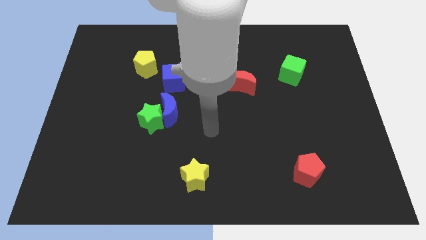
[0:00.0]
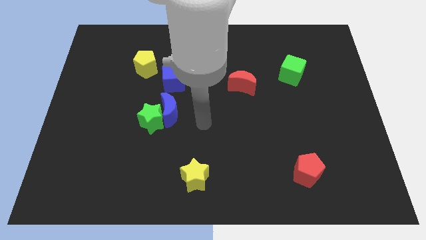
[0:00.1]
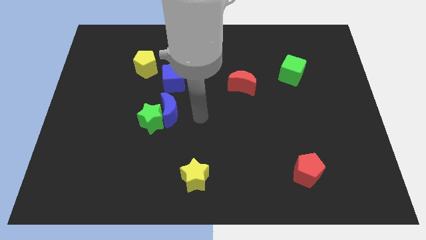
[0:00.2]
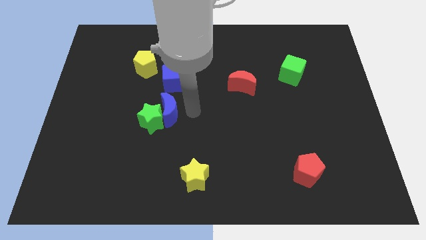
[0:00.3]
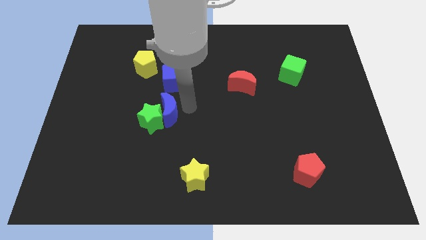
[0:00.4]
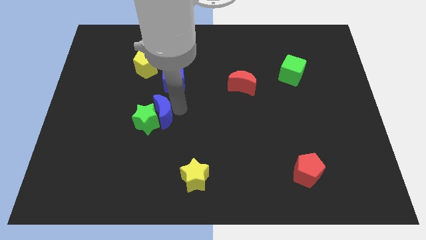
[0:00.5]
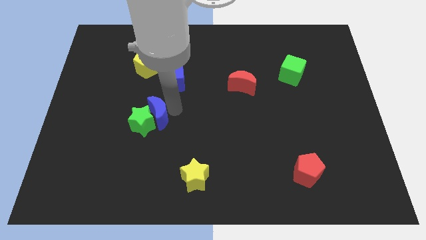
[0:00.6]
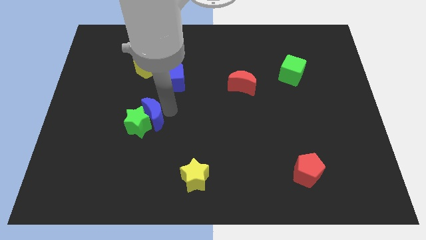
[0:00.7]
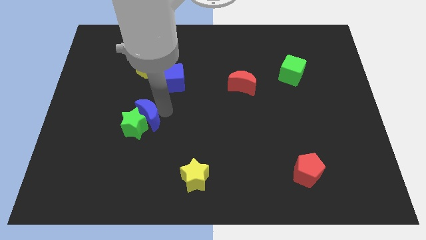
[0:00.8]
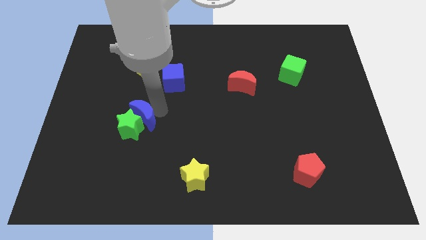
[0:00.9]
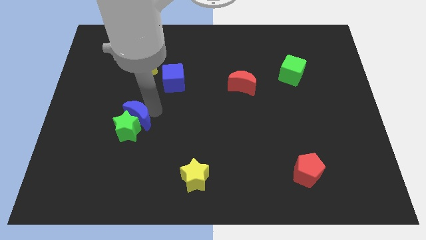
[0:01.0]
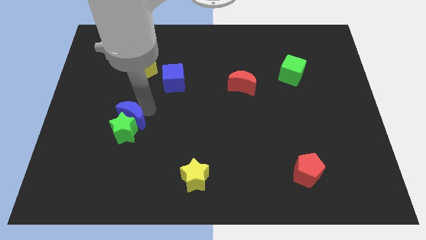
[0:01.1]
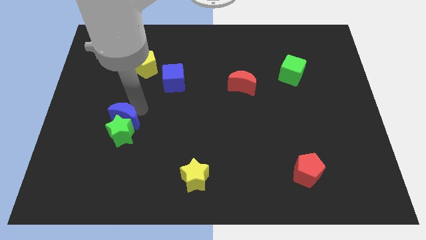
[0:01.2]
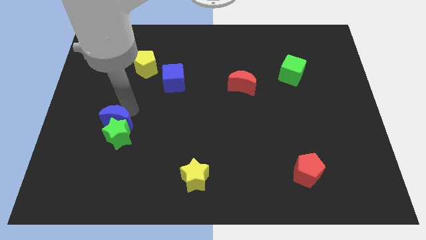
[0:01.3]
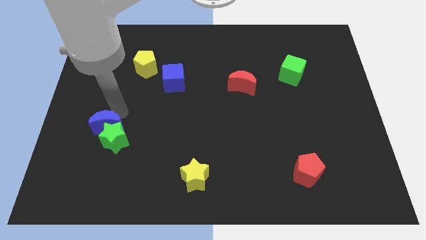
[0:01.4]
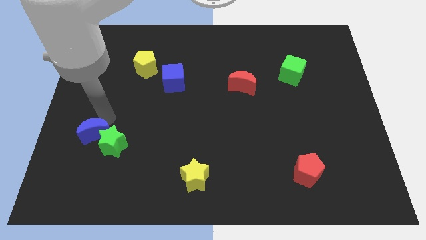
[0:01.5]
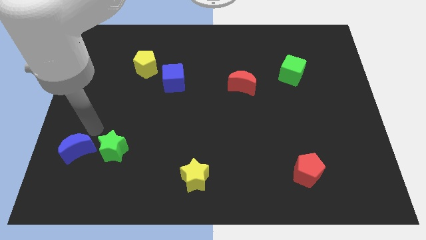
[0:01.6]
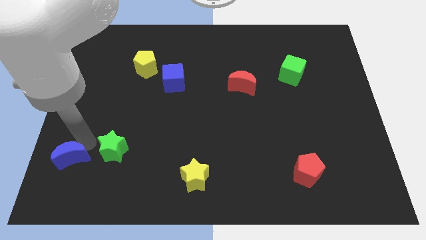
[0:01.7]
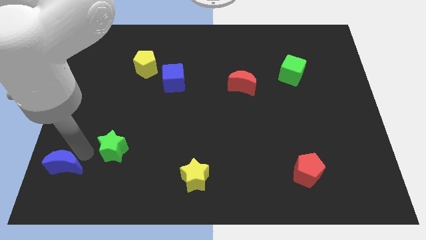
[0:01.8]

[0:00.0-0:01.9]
separate the green star from the blue moon

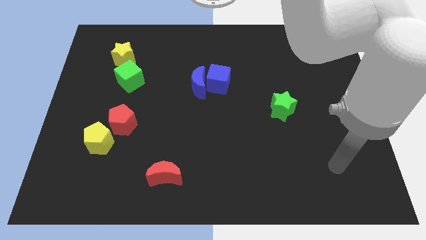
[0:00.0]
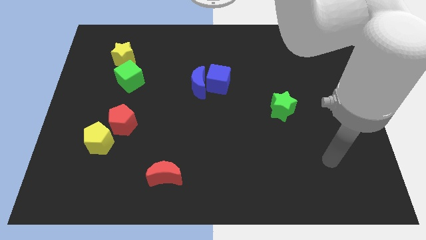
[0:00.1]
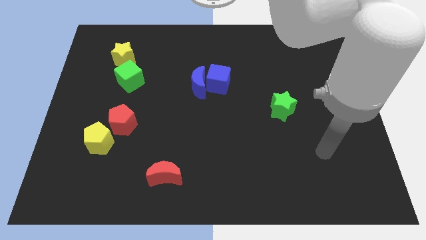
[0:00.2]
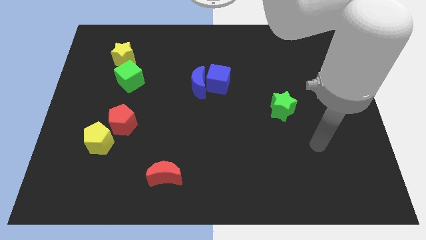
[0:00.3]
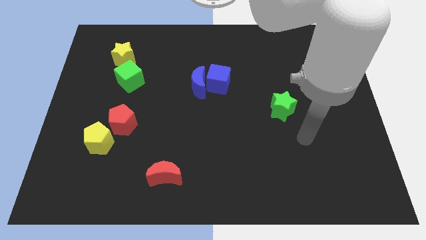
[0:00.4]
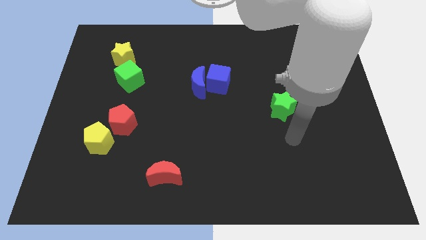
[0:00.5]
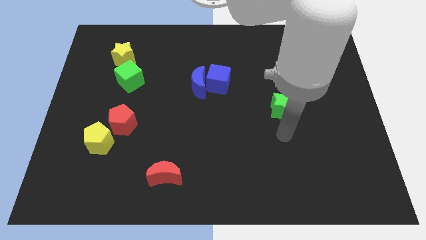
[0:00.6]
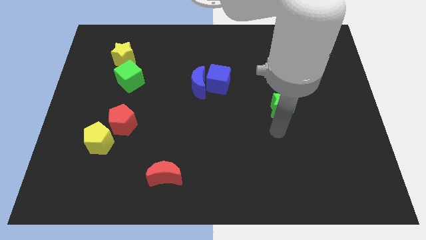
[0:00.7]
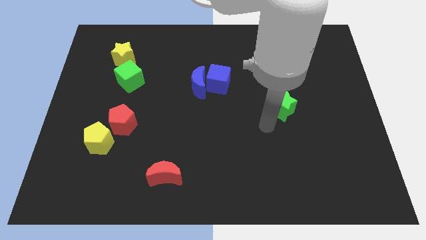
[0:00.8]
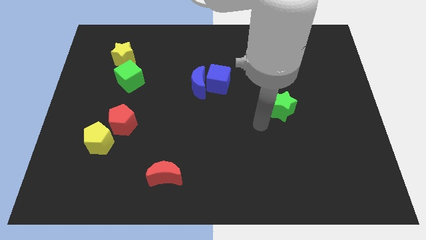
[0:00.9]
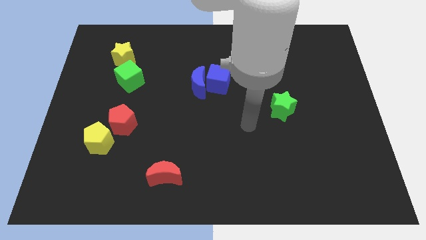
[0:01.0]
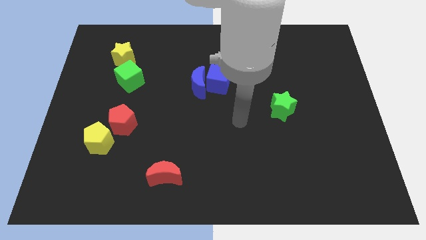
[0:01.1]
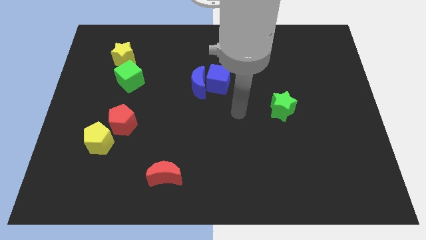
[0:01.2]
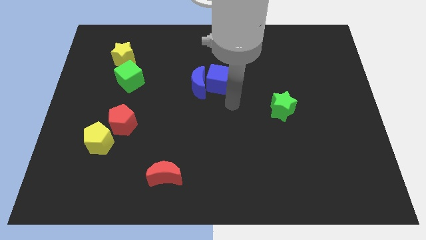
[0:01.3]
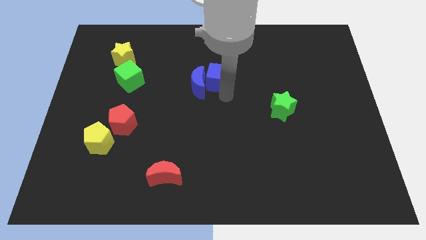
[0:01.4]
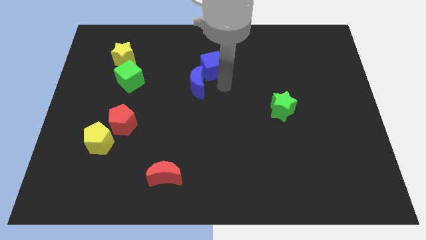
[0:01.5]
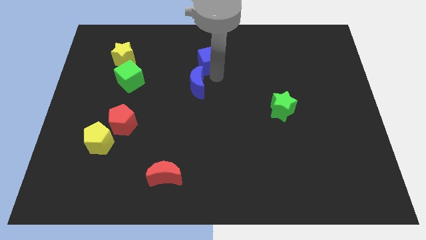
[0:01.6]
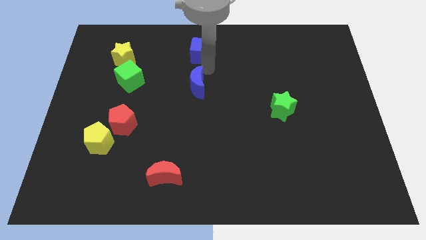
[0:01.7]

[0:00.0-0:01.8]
separate the blue moon from the blue cube

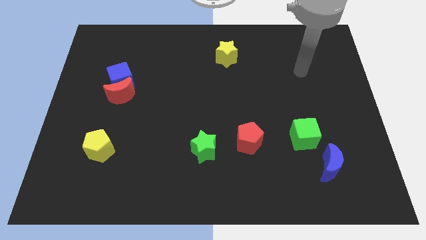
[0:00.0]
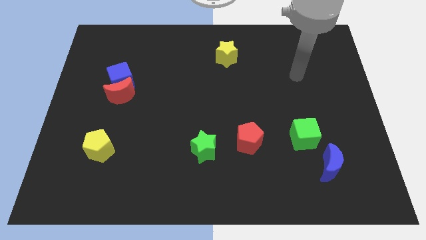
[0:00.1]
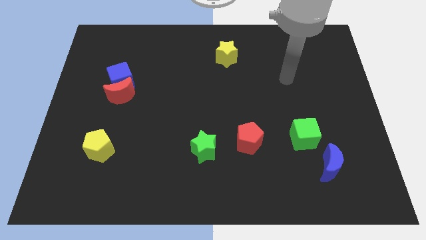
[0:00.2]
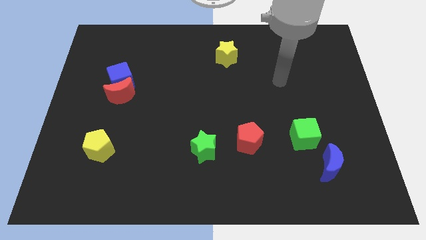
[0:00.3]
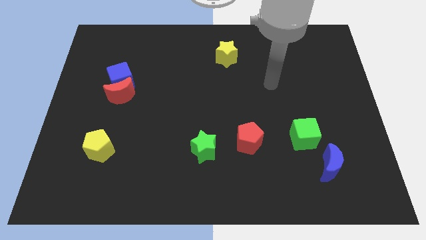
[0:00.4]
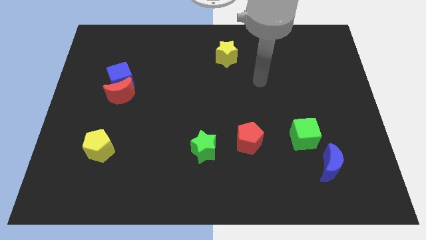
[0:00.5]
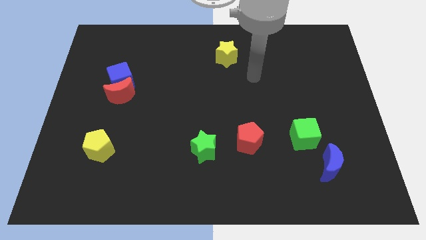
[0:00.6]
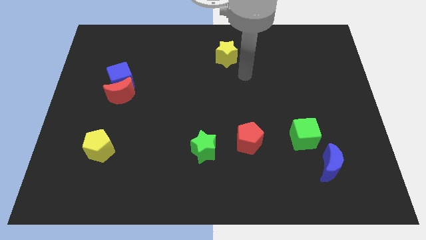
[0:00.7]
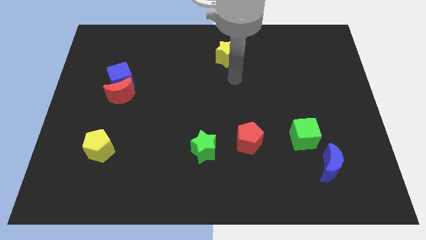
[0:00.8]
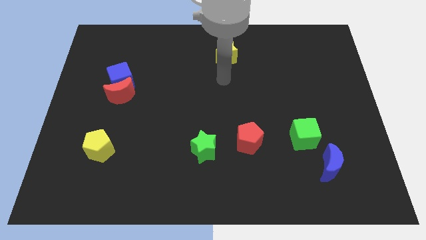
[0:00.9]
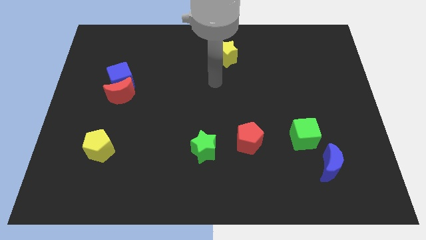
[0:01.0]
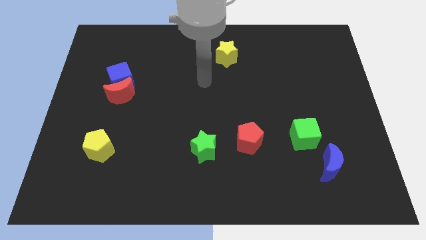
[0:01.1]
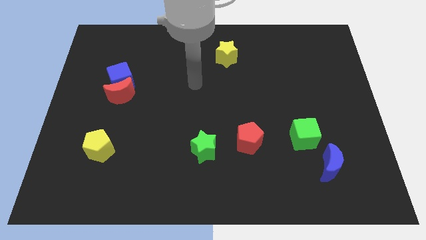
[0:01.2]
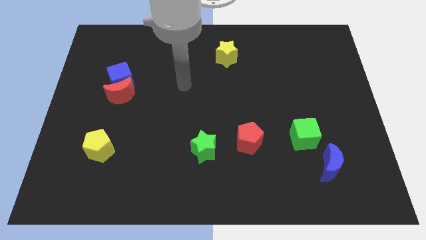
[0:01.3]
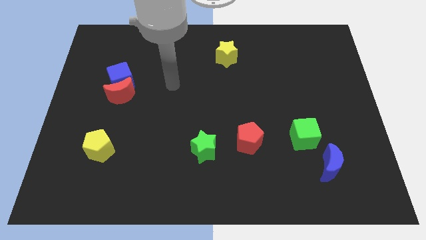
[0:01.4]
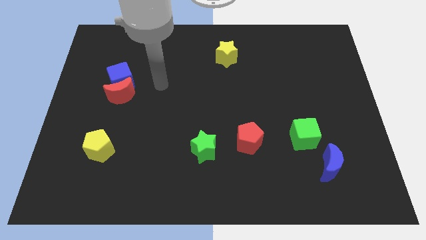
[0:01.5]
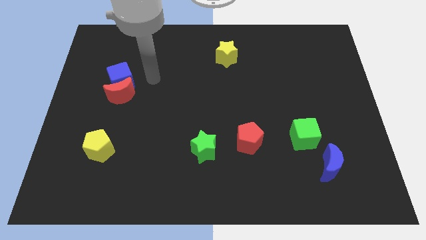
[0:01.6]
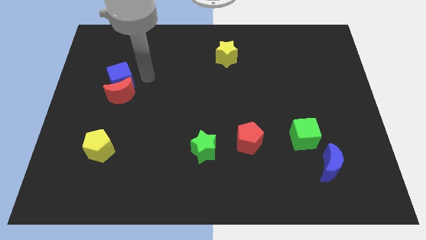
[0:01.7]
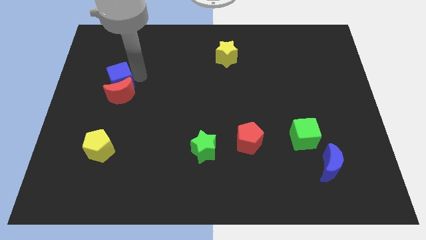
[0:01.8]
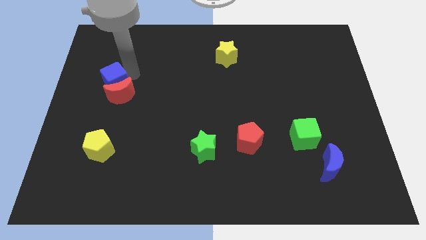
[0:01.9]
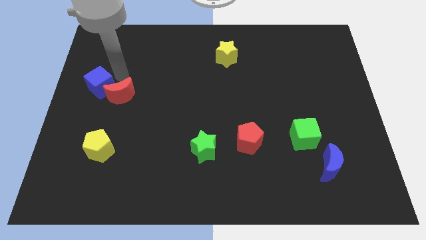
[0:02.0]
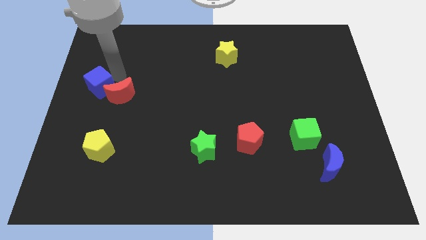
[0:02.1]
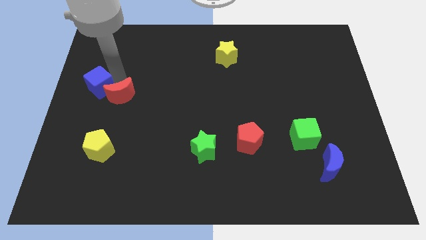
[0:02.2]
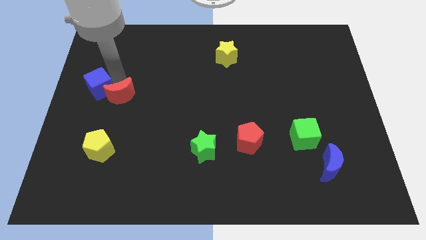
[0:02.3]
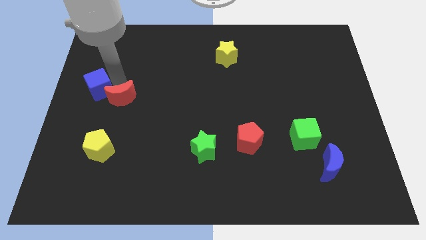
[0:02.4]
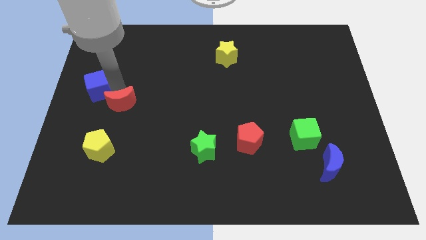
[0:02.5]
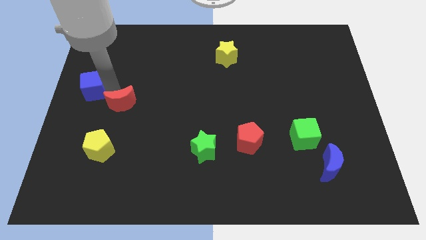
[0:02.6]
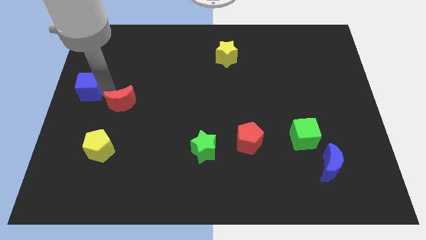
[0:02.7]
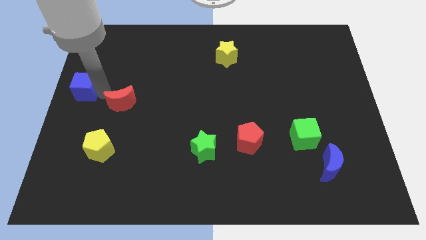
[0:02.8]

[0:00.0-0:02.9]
pull the red moon apart from the blue cube

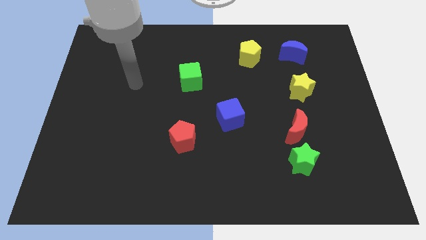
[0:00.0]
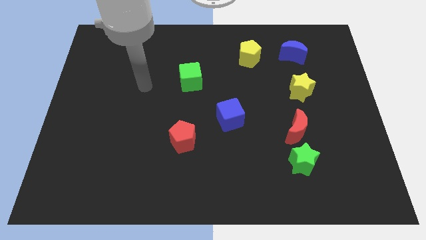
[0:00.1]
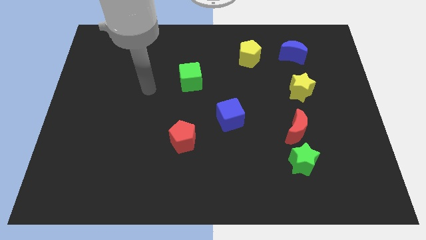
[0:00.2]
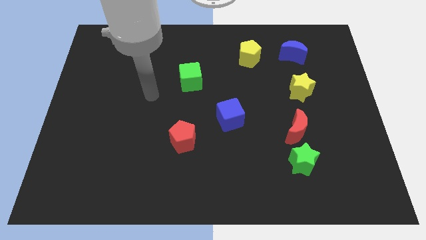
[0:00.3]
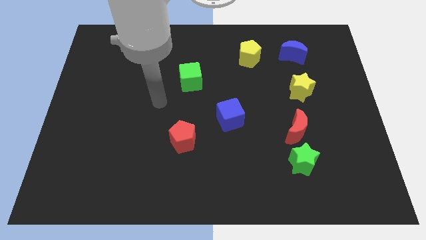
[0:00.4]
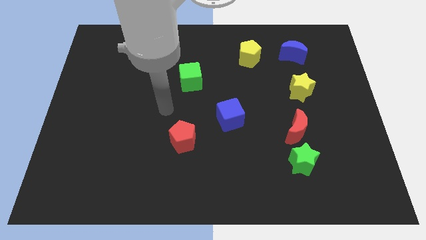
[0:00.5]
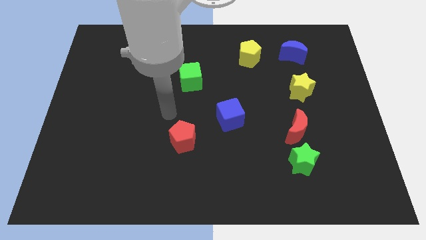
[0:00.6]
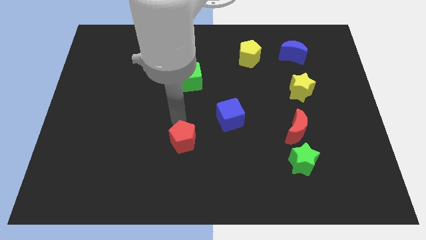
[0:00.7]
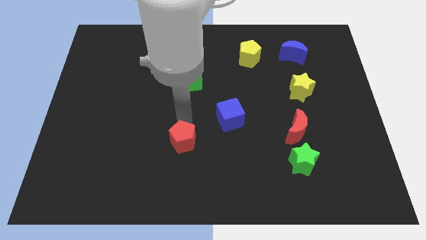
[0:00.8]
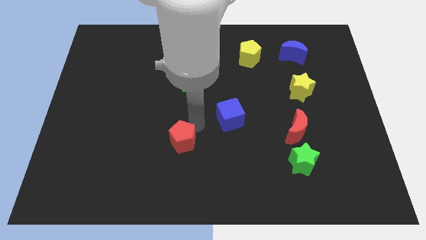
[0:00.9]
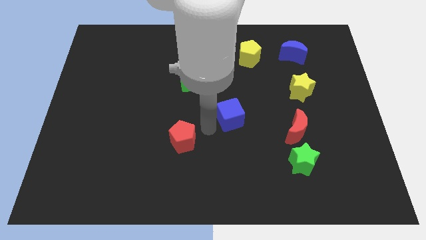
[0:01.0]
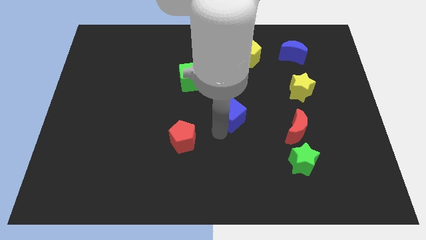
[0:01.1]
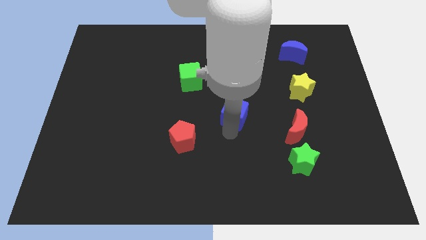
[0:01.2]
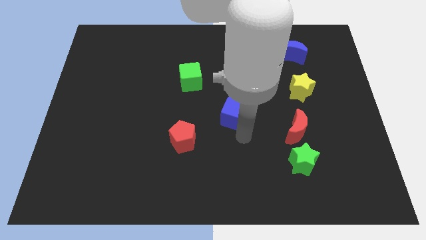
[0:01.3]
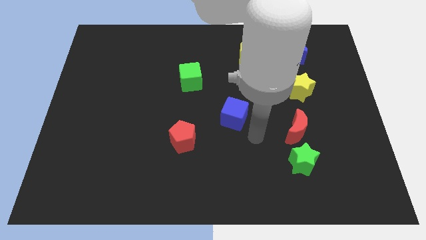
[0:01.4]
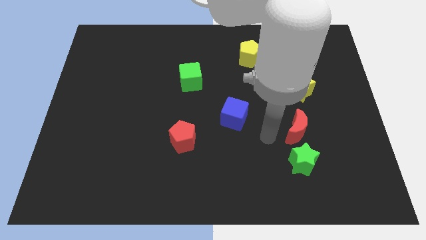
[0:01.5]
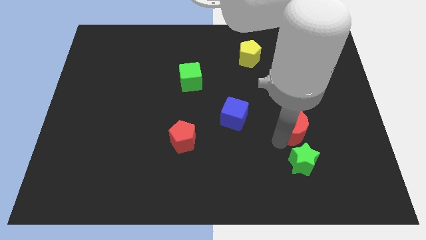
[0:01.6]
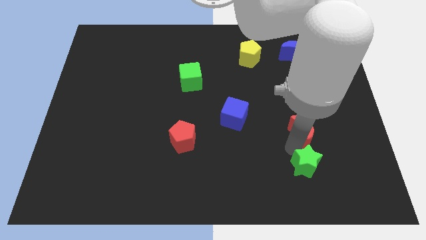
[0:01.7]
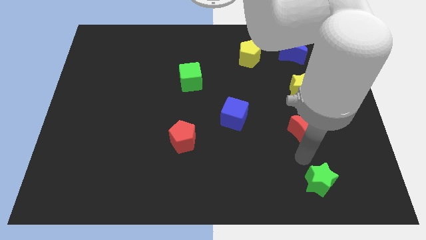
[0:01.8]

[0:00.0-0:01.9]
separate the red moon from the green star

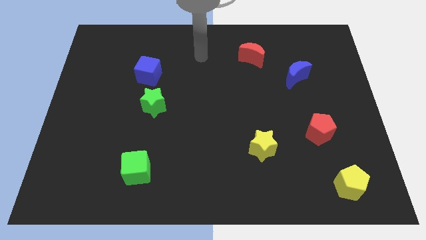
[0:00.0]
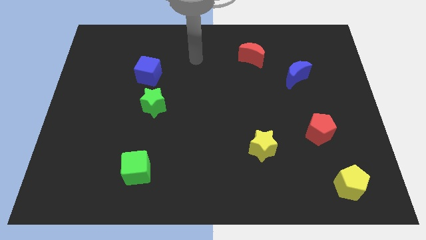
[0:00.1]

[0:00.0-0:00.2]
separate the blue cube from the green star

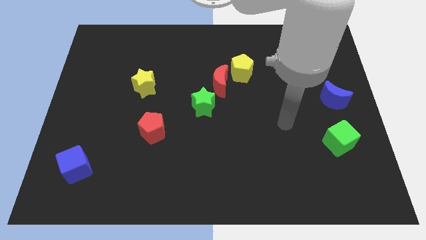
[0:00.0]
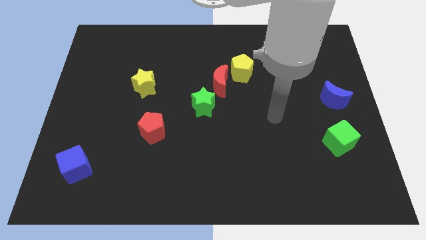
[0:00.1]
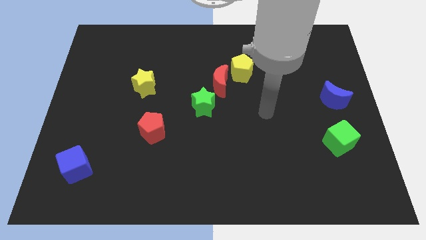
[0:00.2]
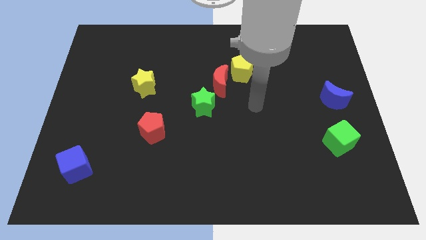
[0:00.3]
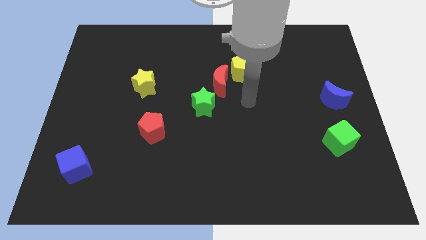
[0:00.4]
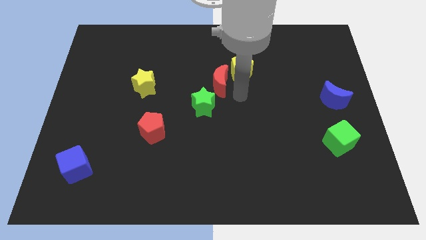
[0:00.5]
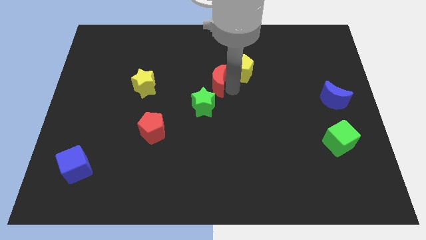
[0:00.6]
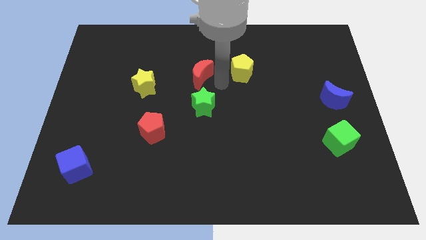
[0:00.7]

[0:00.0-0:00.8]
separate the yellow pentagon from the red moon
